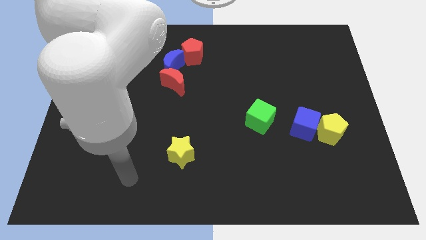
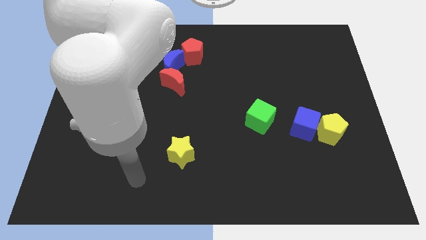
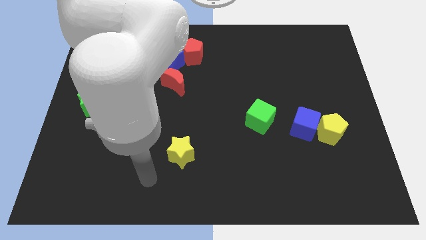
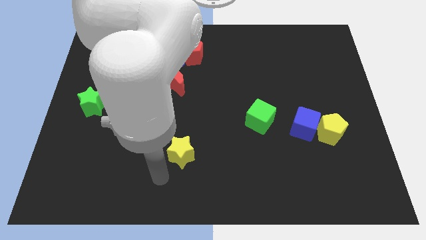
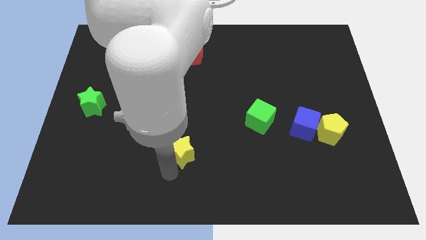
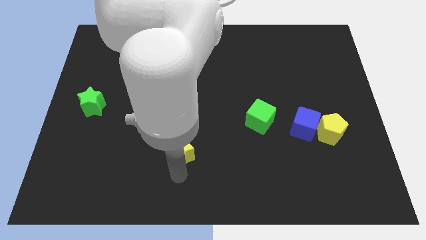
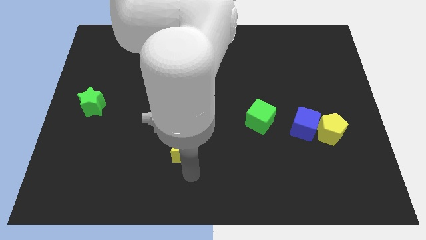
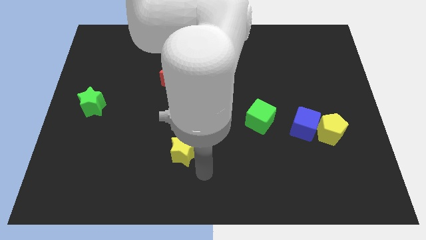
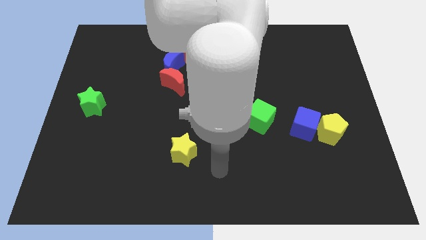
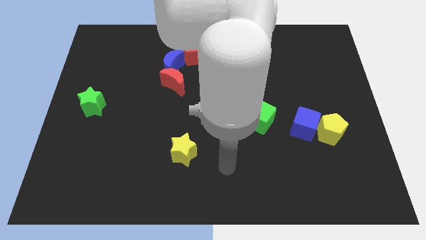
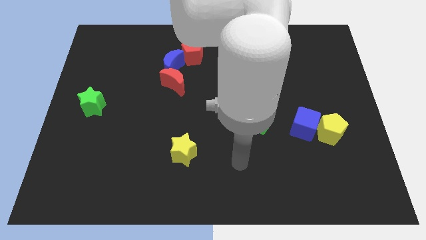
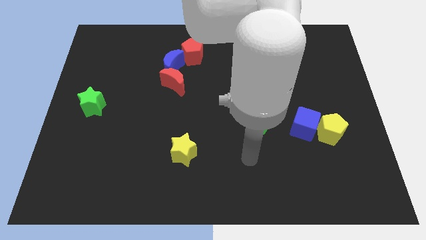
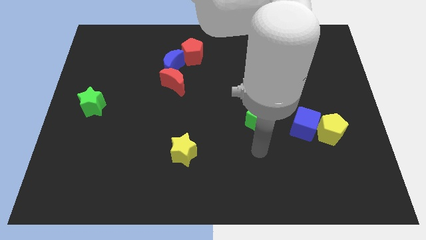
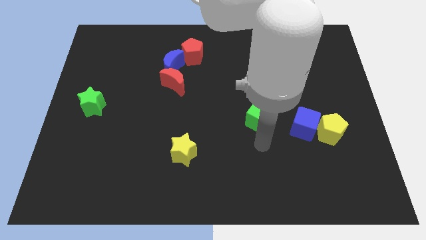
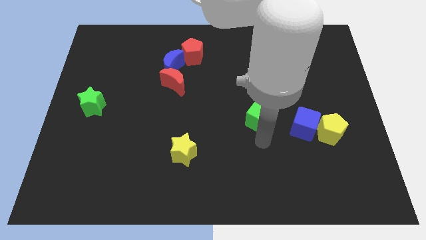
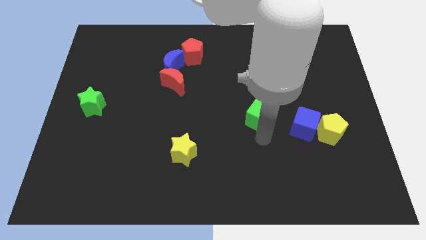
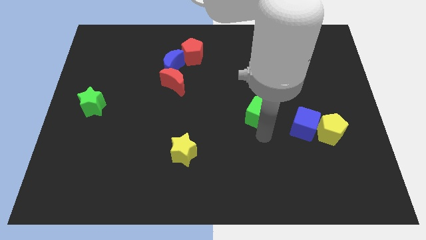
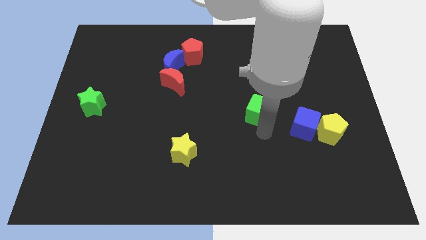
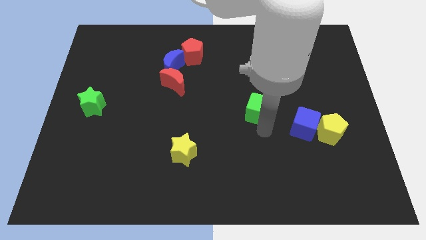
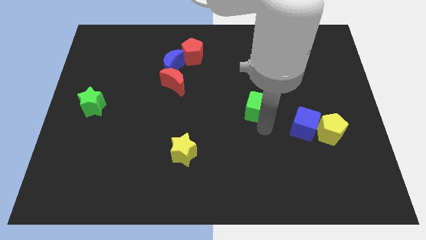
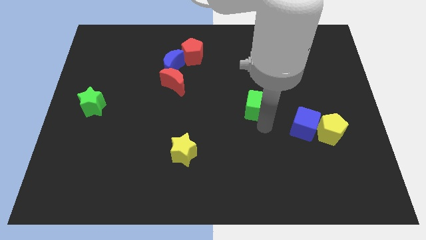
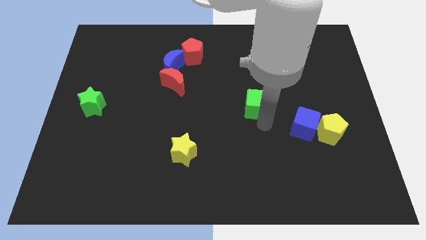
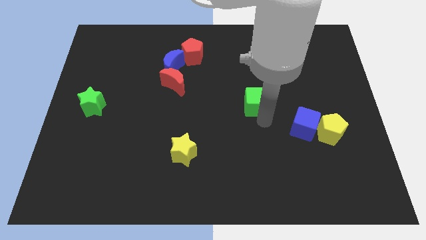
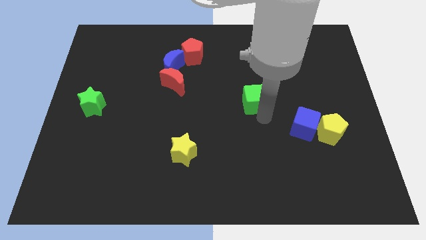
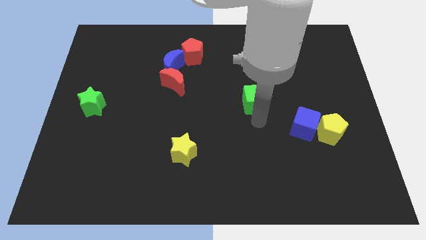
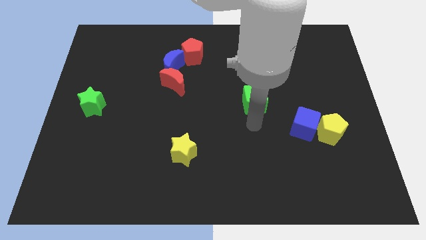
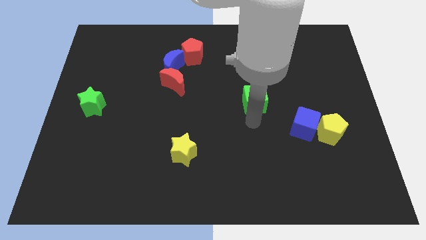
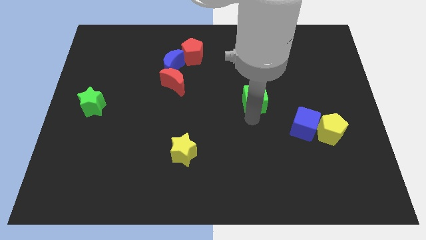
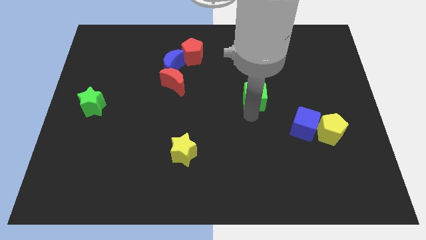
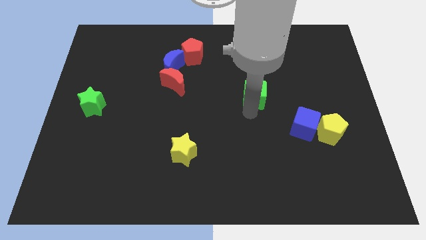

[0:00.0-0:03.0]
move the green cube upwards a little bit

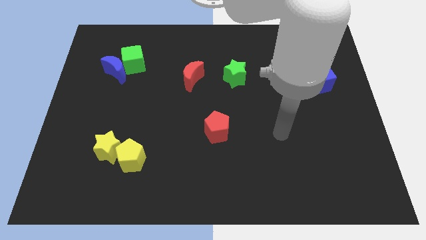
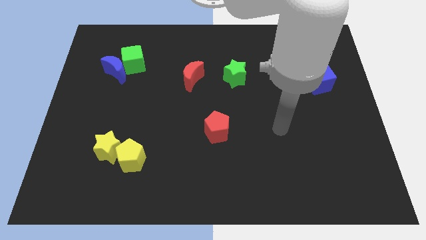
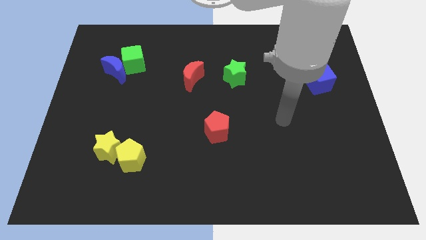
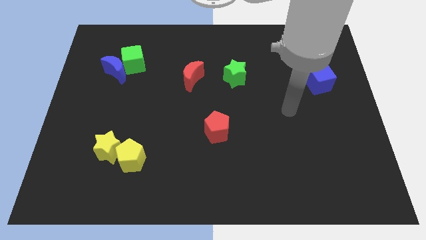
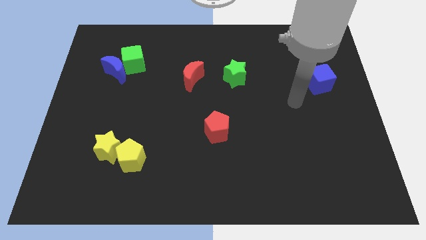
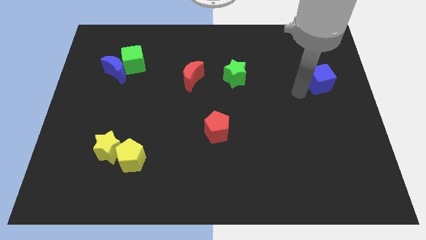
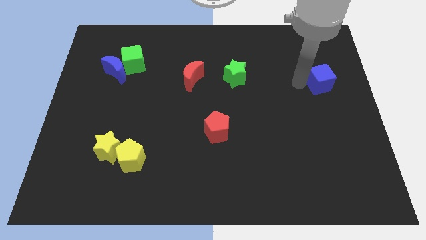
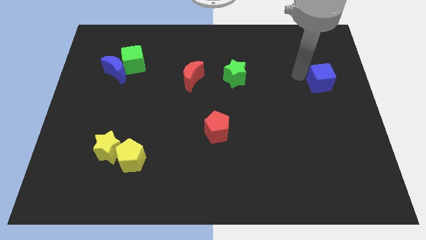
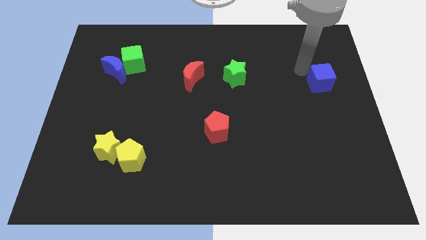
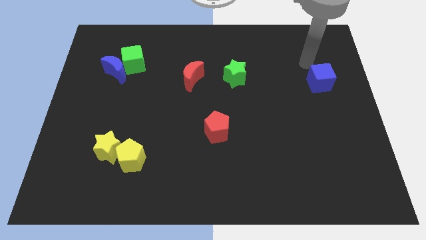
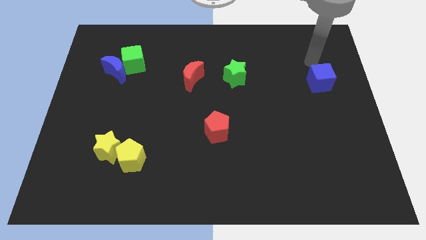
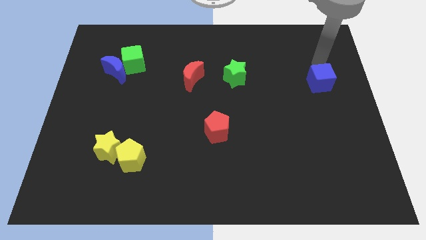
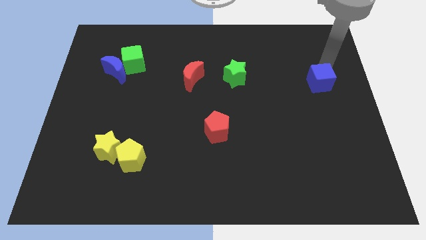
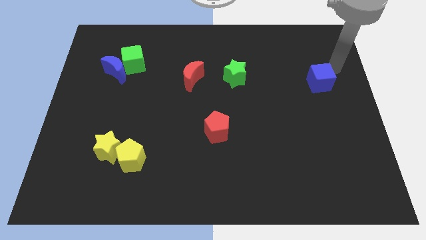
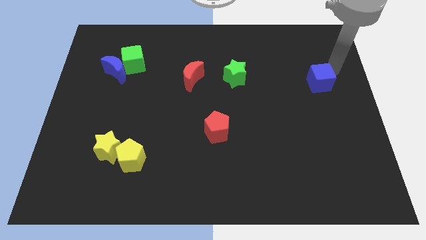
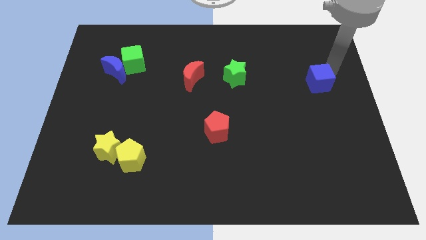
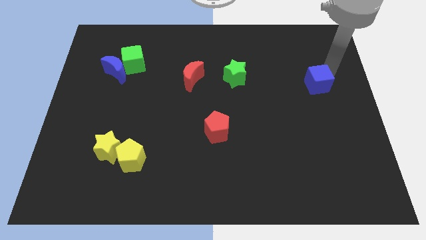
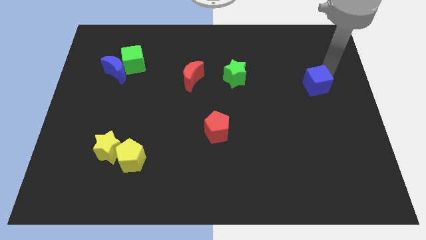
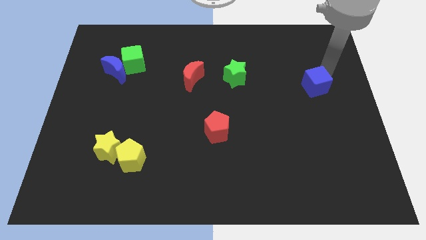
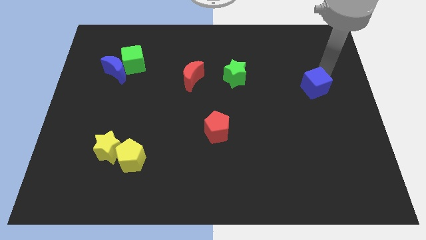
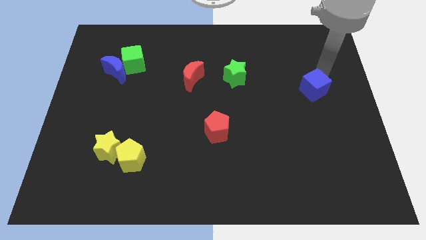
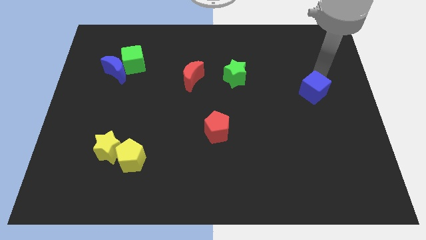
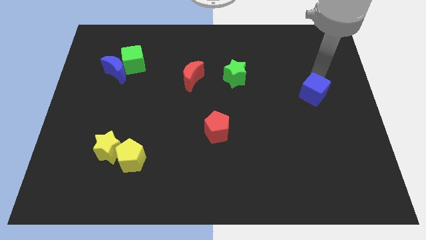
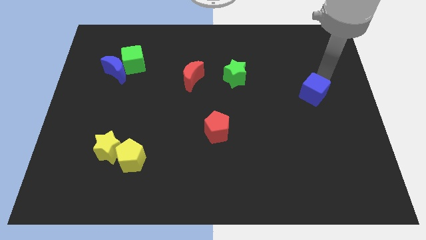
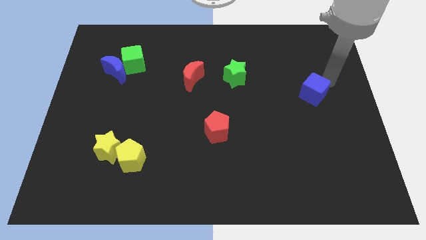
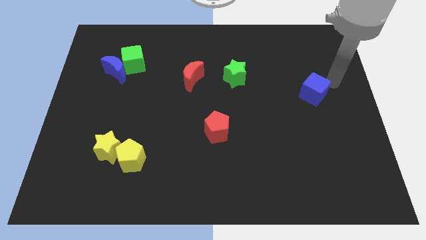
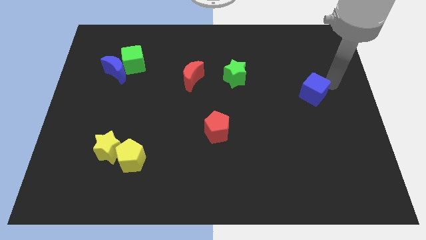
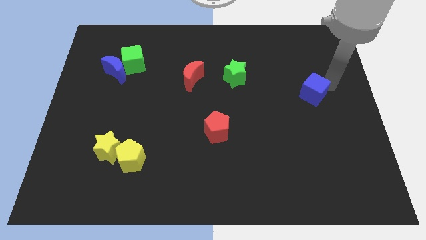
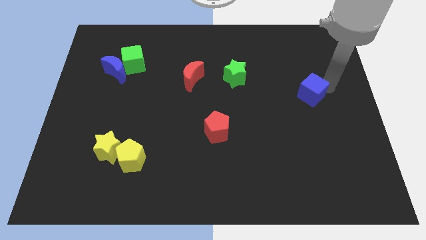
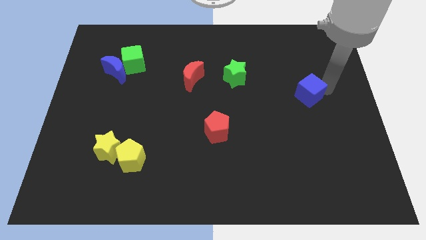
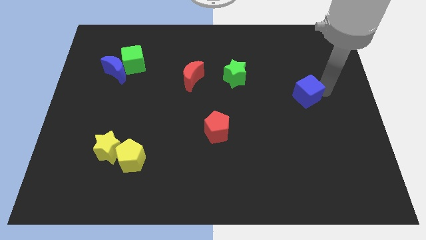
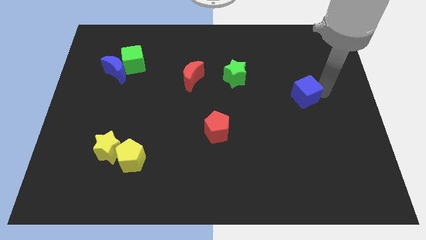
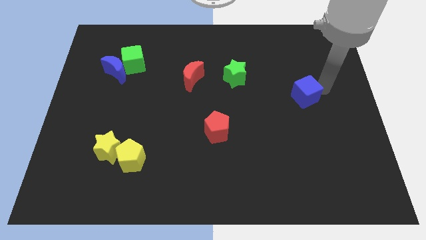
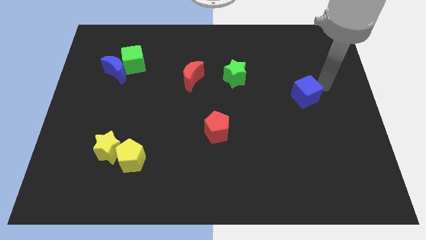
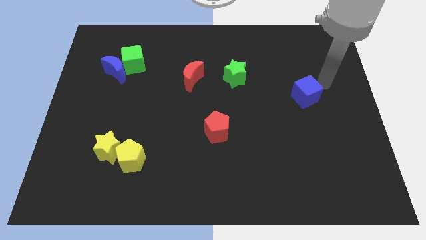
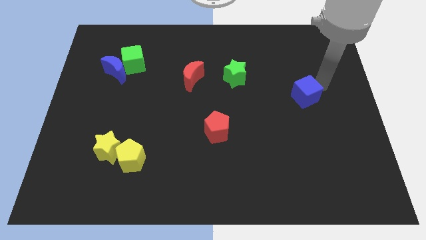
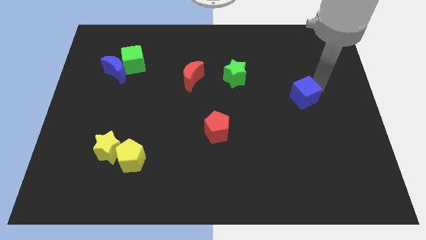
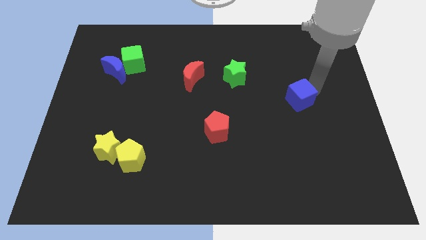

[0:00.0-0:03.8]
push the blue cube downwards and left diagonally a little bit

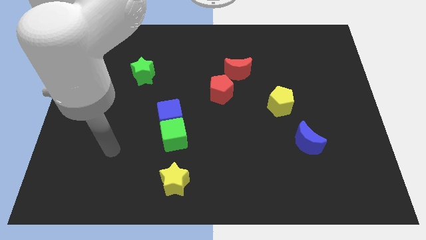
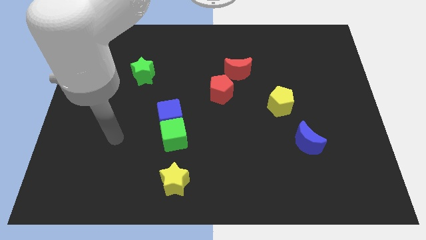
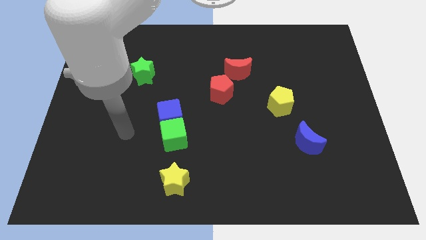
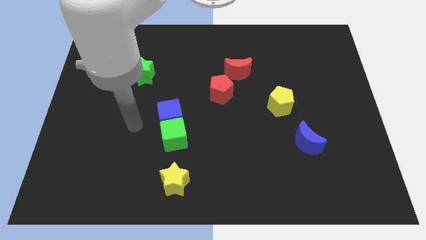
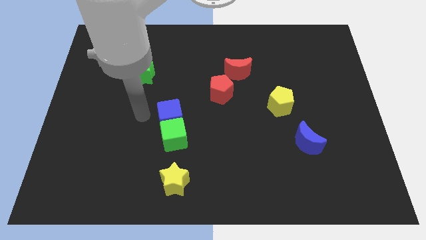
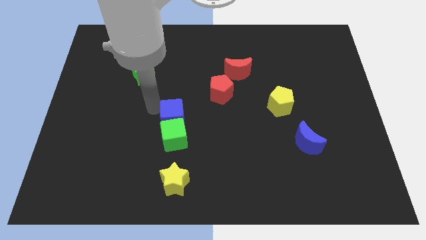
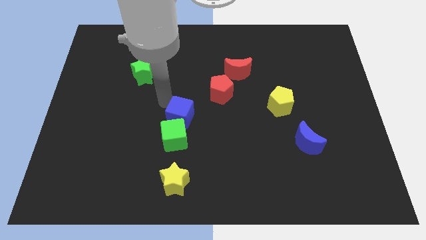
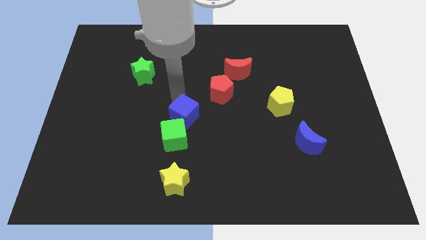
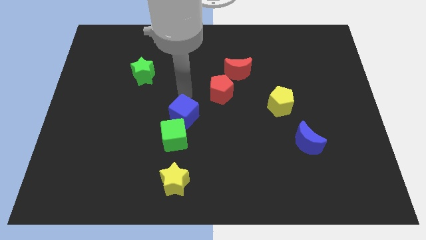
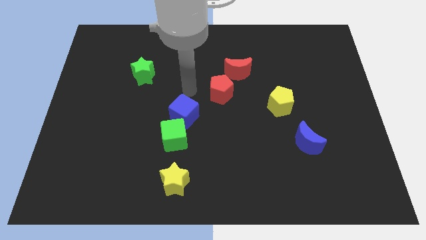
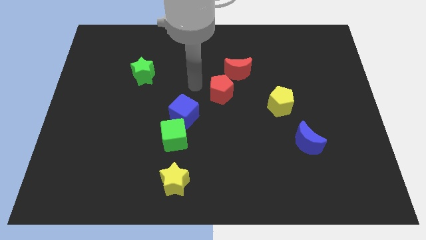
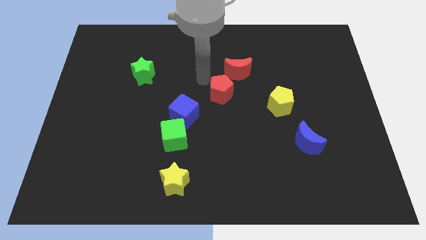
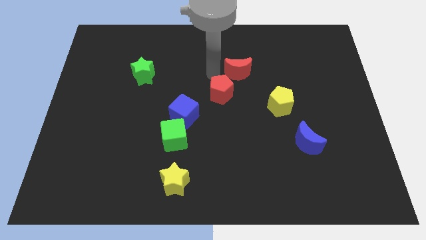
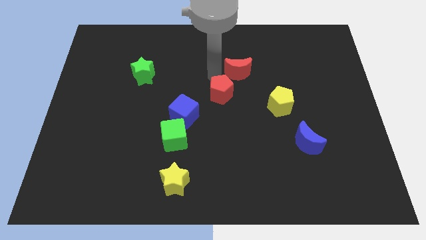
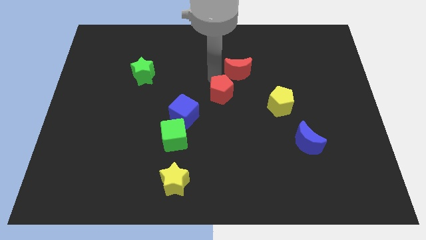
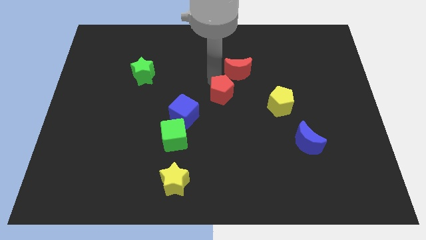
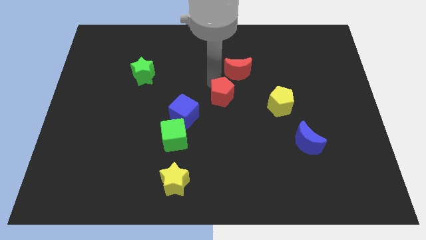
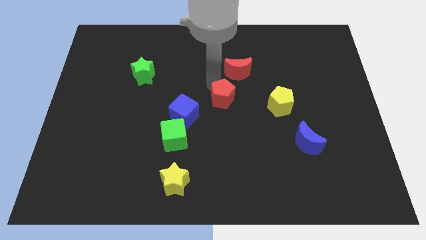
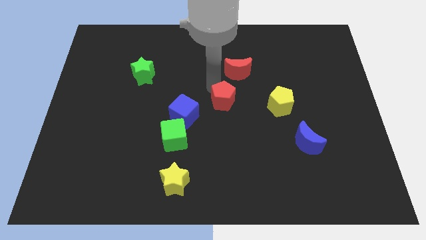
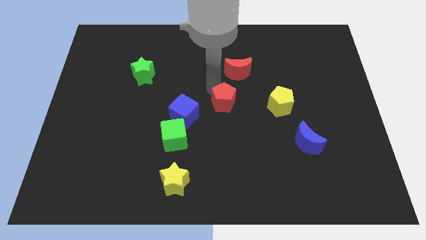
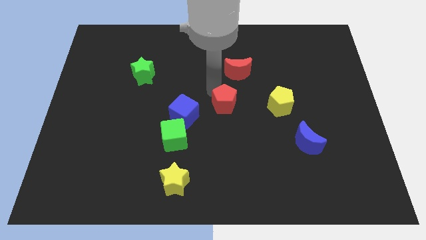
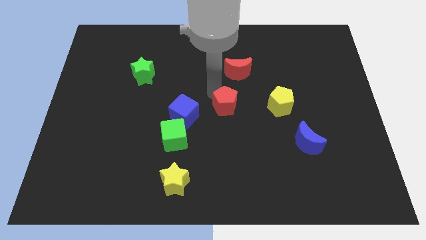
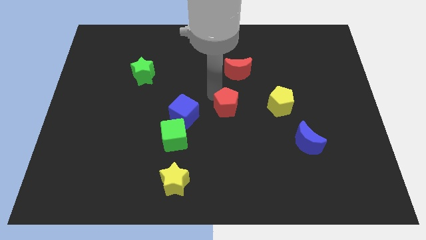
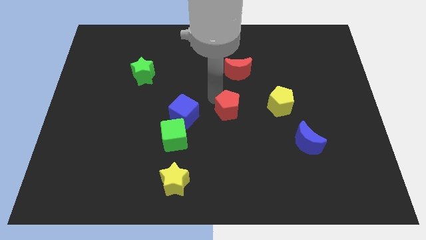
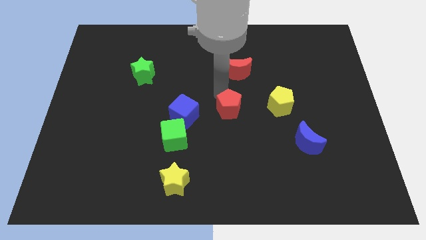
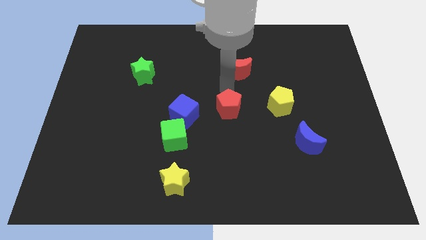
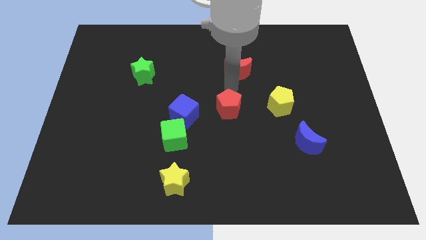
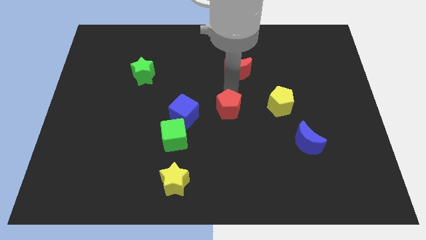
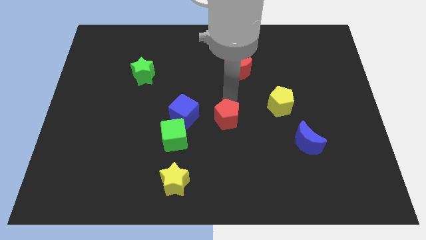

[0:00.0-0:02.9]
slightly slide the red pentagon downwards
